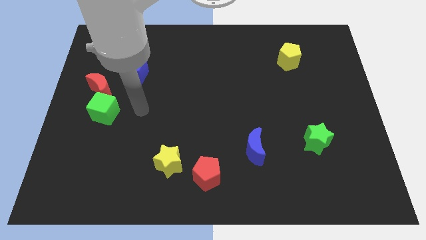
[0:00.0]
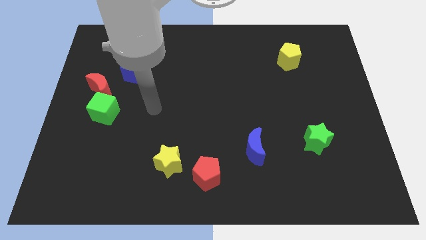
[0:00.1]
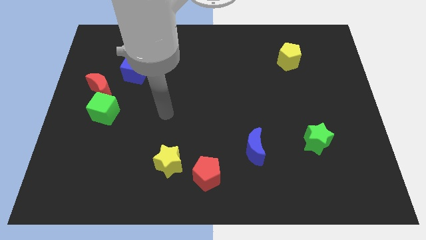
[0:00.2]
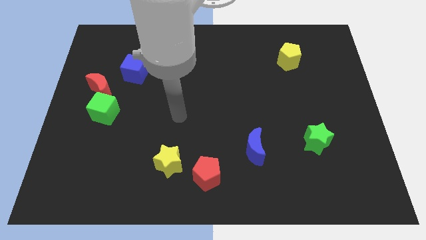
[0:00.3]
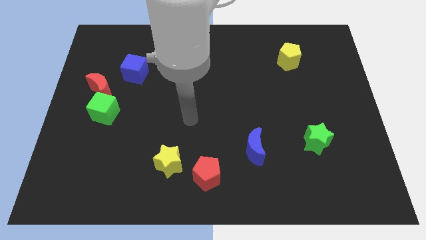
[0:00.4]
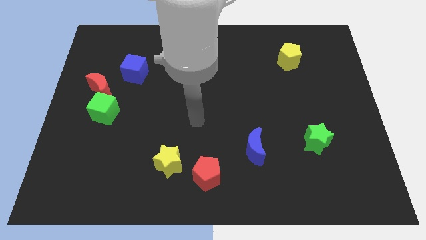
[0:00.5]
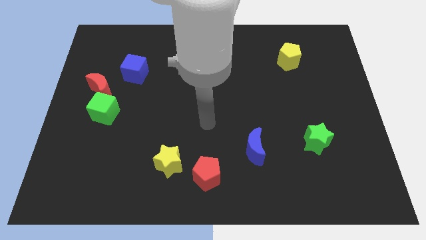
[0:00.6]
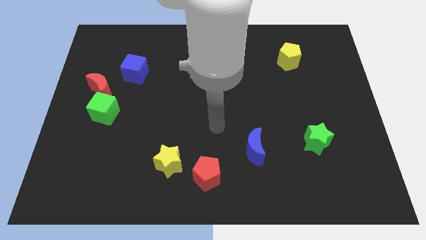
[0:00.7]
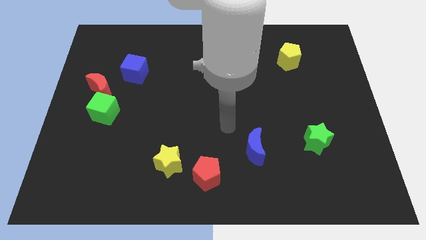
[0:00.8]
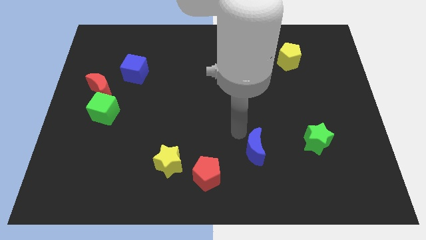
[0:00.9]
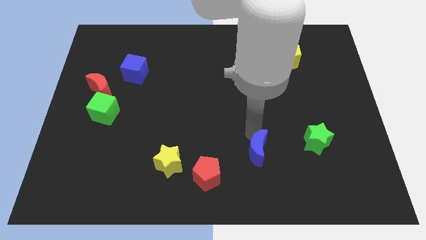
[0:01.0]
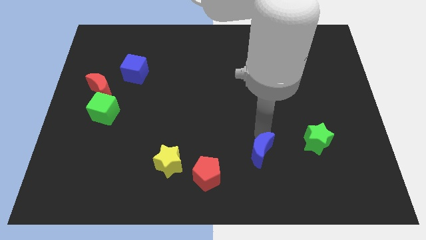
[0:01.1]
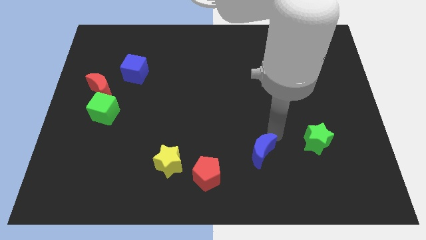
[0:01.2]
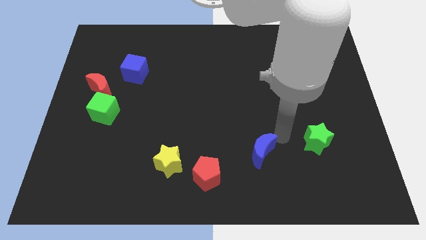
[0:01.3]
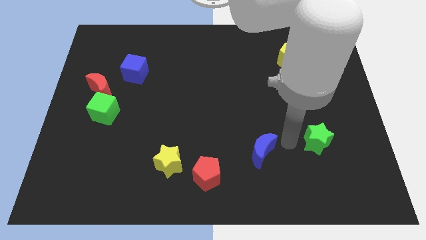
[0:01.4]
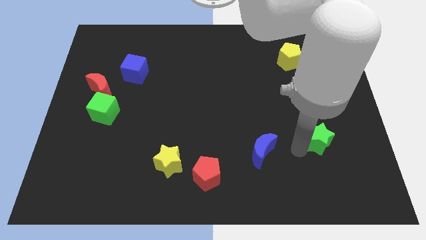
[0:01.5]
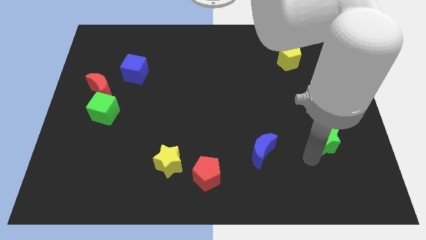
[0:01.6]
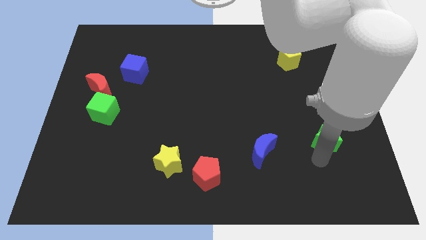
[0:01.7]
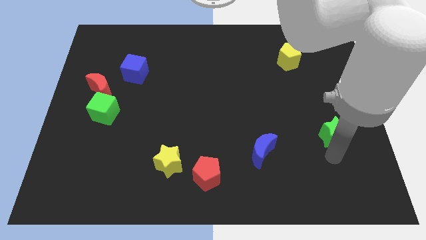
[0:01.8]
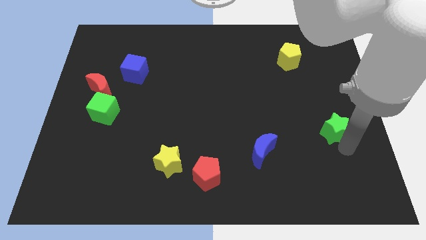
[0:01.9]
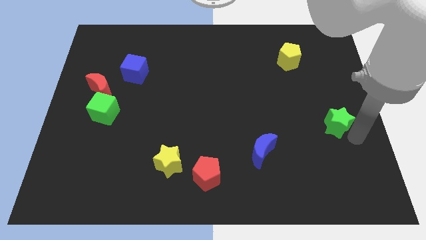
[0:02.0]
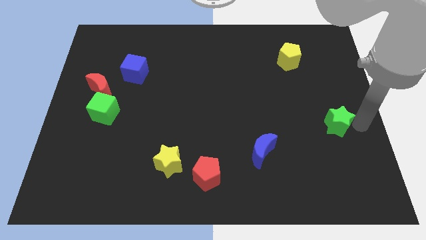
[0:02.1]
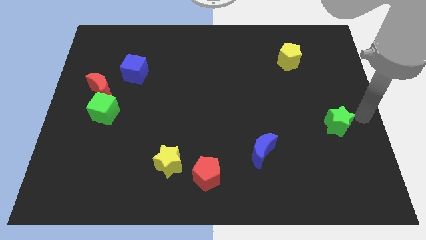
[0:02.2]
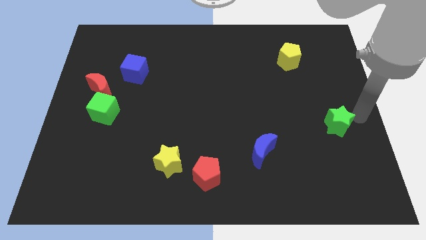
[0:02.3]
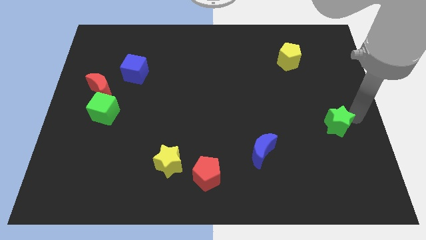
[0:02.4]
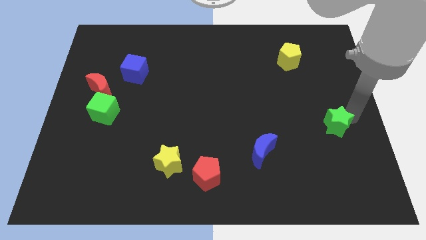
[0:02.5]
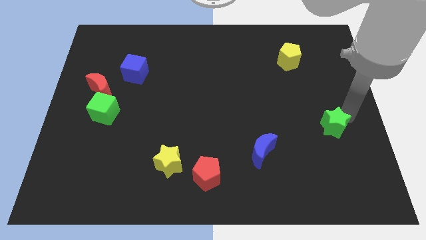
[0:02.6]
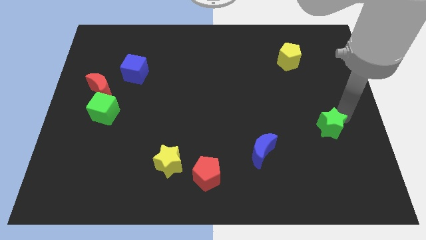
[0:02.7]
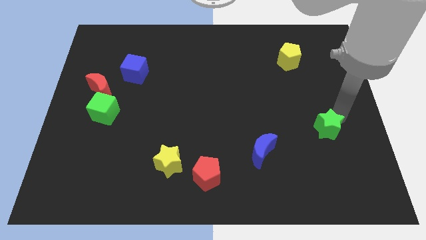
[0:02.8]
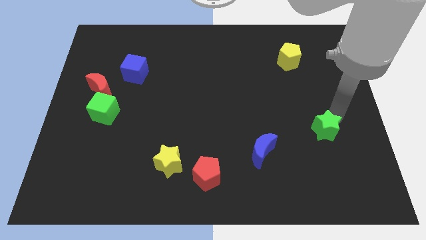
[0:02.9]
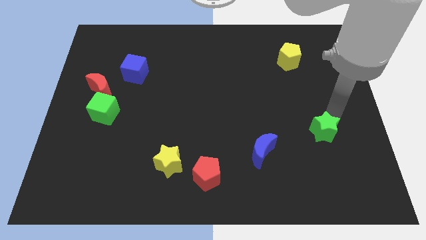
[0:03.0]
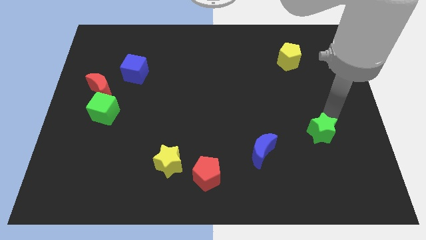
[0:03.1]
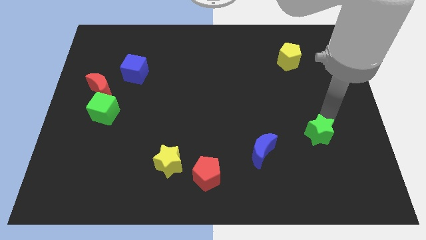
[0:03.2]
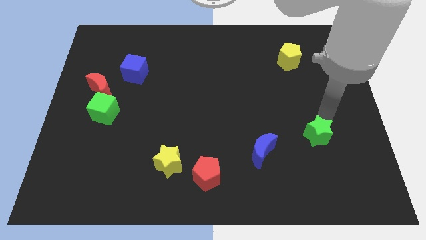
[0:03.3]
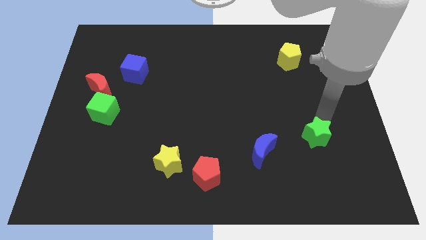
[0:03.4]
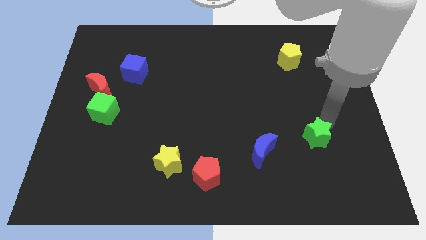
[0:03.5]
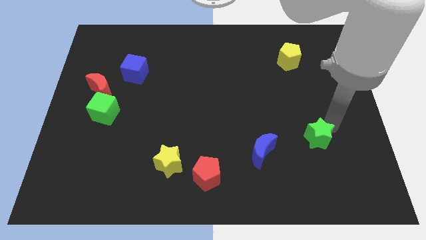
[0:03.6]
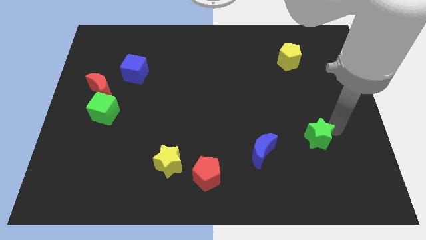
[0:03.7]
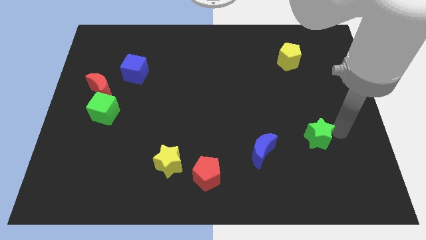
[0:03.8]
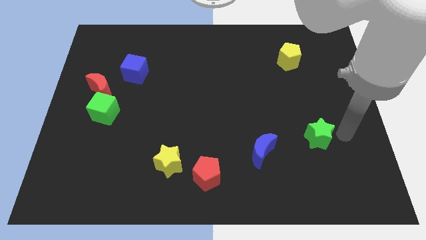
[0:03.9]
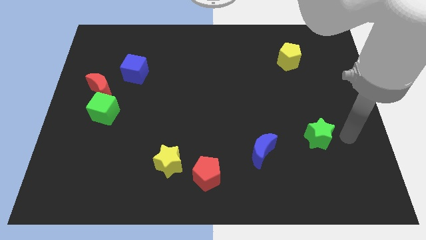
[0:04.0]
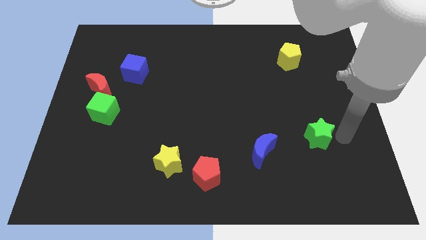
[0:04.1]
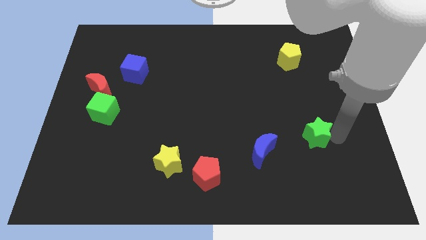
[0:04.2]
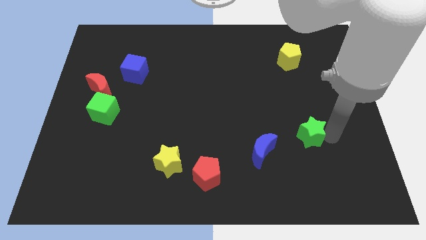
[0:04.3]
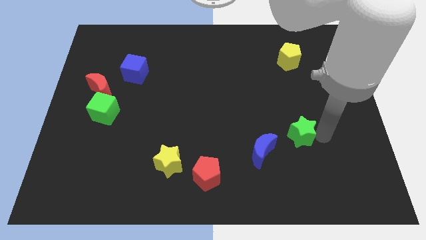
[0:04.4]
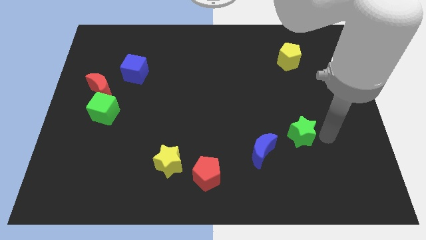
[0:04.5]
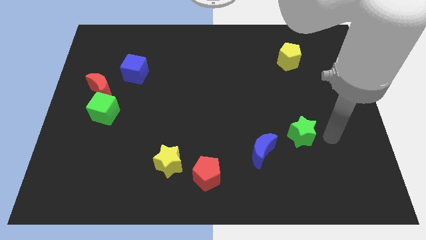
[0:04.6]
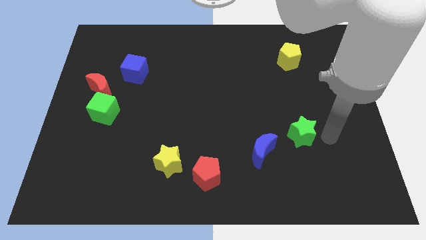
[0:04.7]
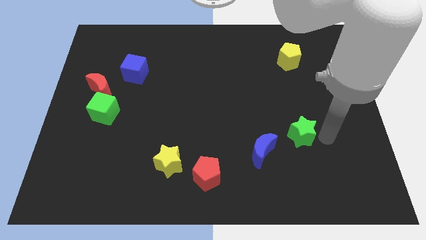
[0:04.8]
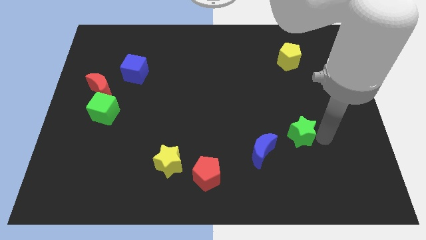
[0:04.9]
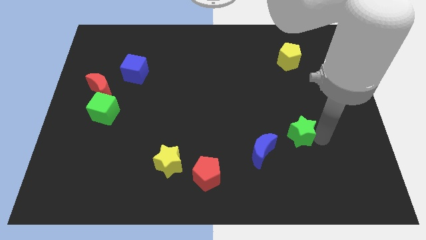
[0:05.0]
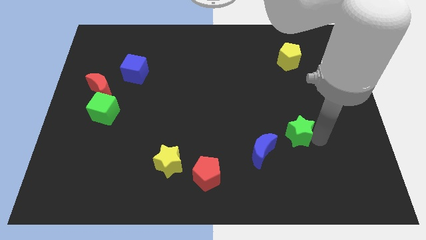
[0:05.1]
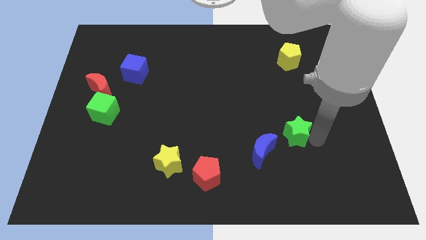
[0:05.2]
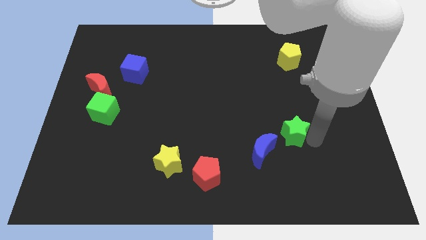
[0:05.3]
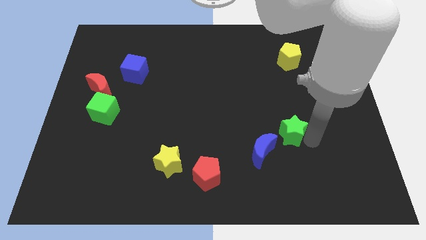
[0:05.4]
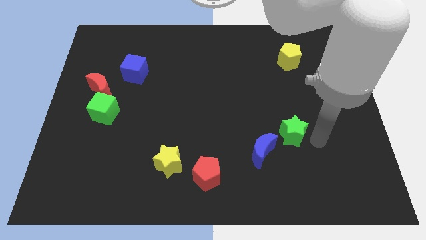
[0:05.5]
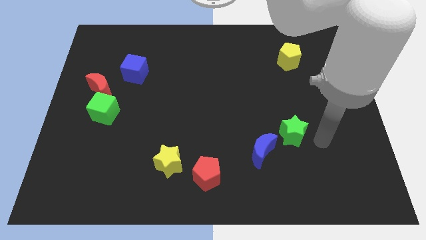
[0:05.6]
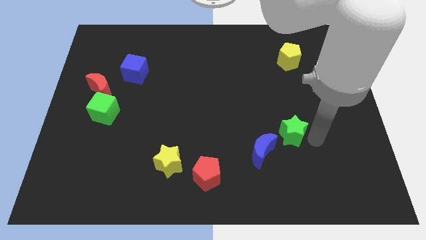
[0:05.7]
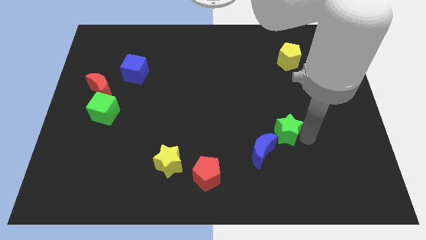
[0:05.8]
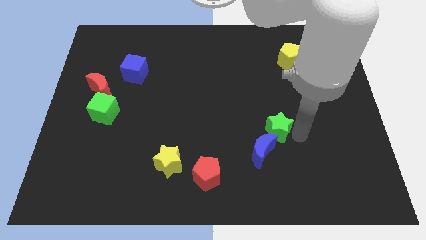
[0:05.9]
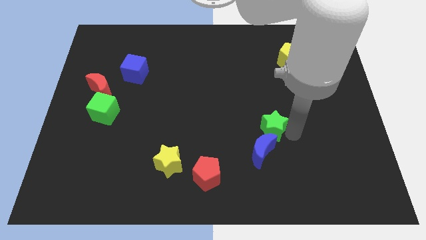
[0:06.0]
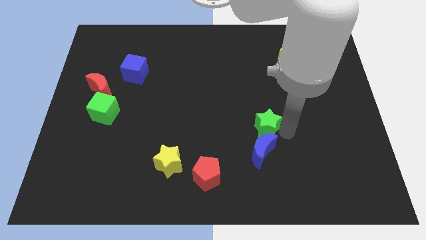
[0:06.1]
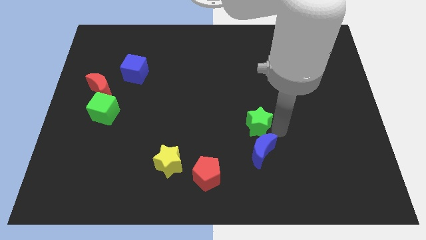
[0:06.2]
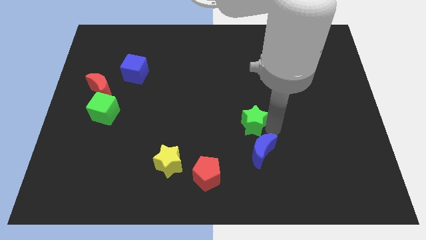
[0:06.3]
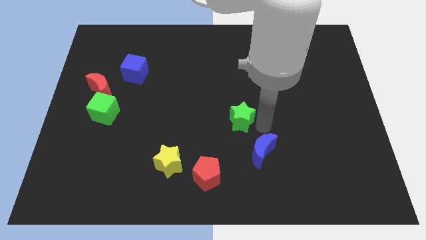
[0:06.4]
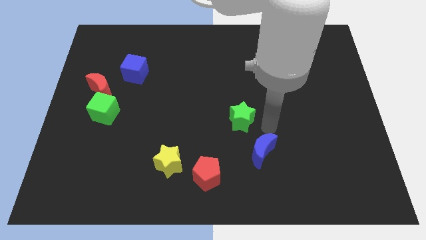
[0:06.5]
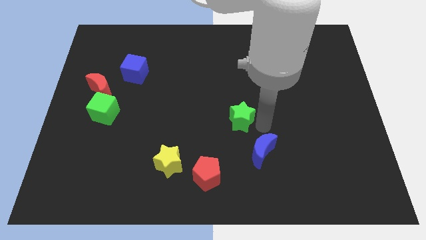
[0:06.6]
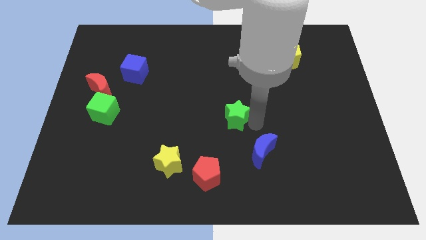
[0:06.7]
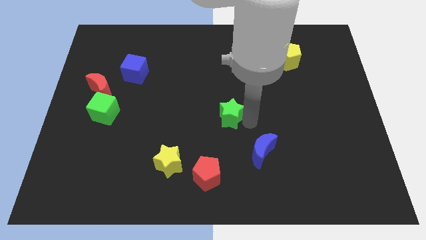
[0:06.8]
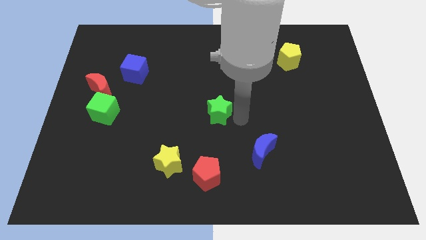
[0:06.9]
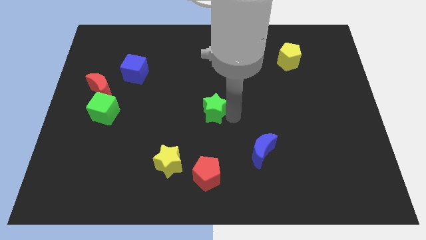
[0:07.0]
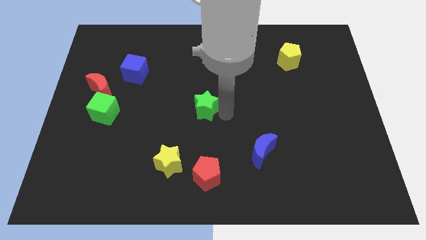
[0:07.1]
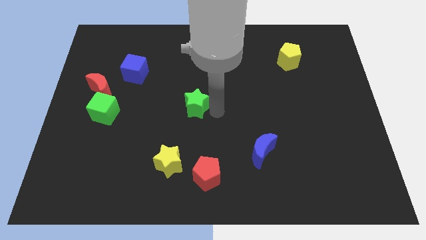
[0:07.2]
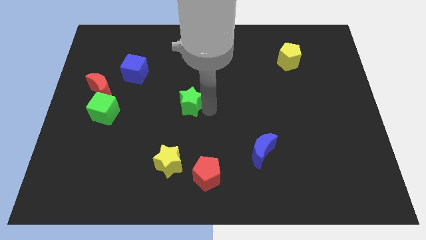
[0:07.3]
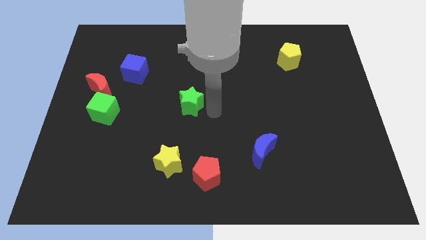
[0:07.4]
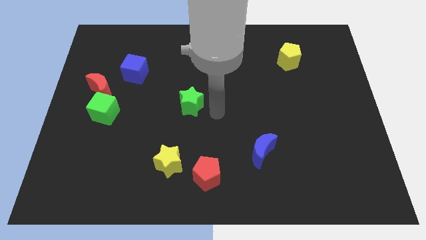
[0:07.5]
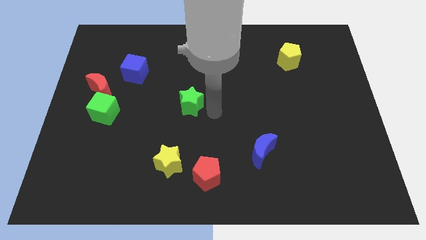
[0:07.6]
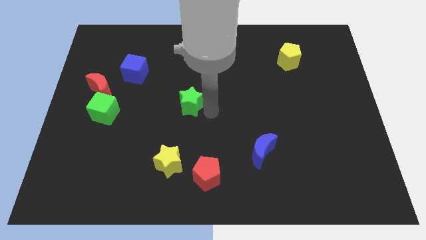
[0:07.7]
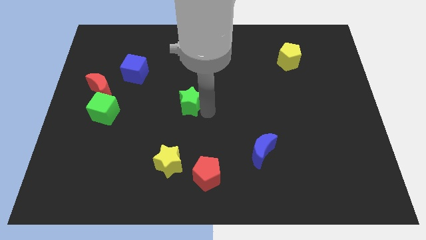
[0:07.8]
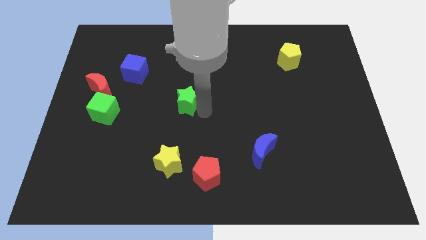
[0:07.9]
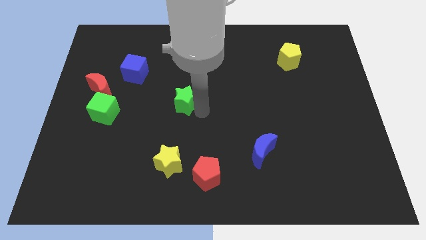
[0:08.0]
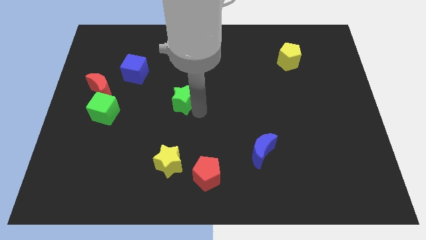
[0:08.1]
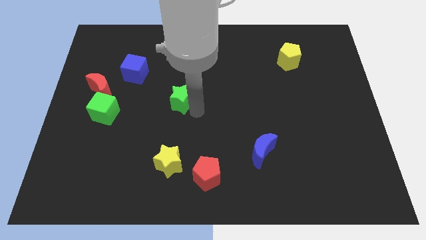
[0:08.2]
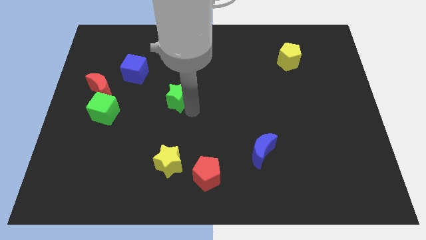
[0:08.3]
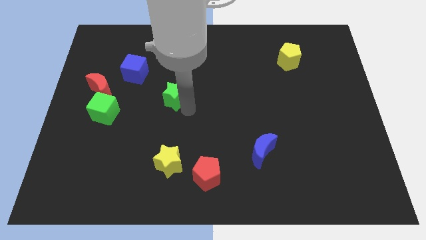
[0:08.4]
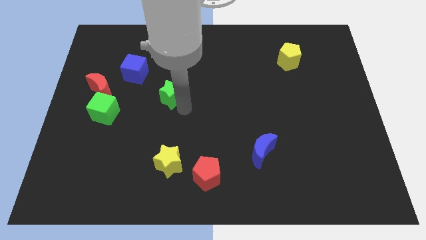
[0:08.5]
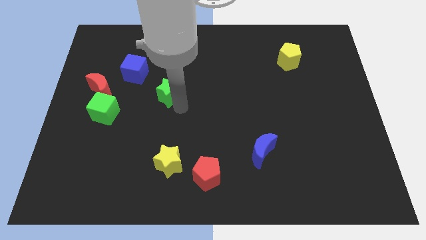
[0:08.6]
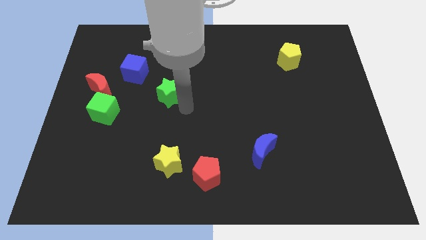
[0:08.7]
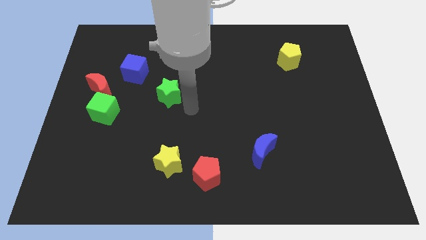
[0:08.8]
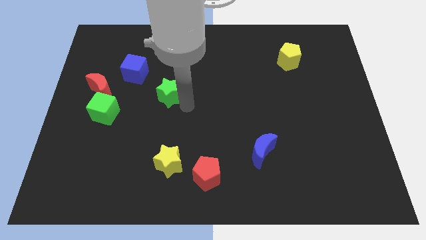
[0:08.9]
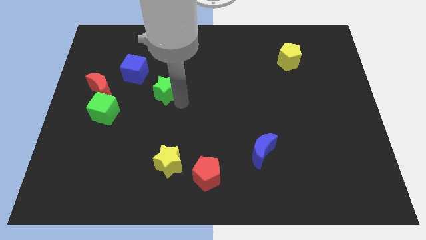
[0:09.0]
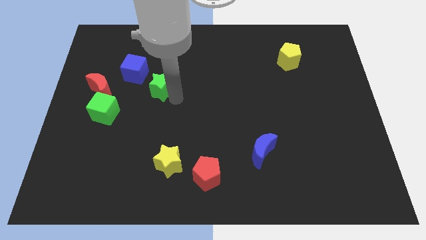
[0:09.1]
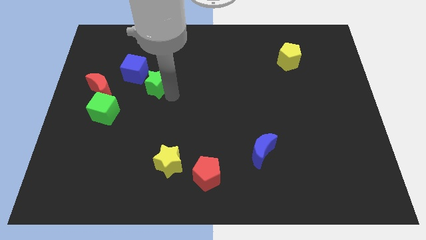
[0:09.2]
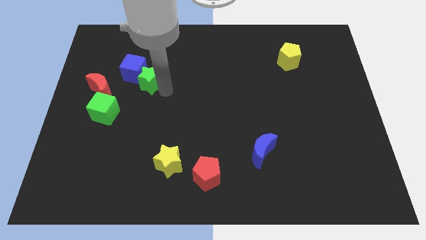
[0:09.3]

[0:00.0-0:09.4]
put the green star close to the blue cube
